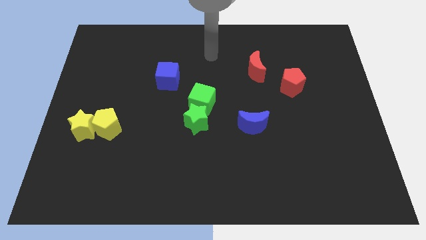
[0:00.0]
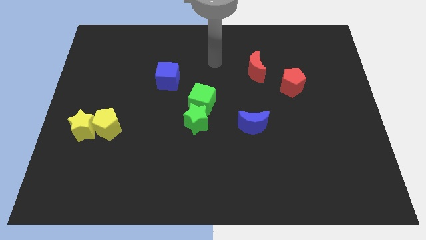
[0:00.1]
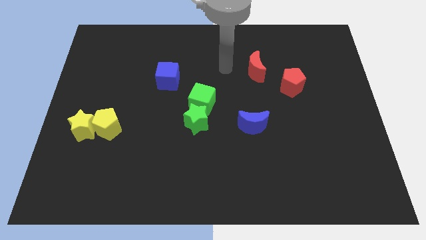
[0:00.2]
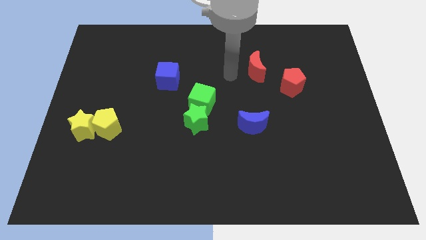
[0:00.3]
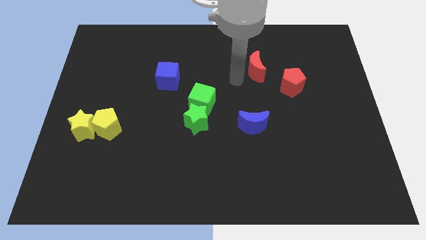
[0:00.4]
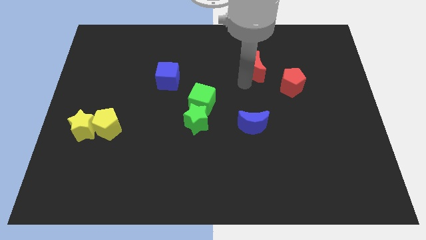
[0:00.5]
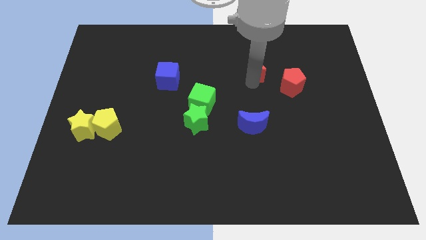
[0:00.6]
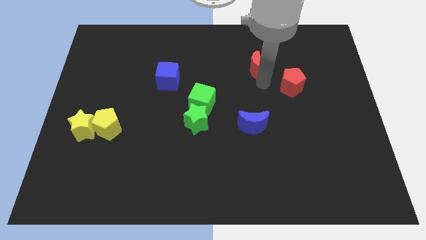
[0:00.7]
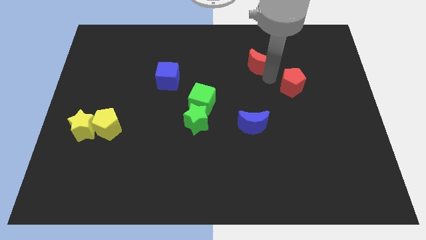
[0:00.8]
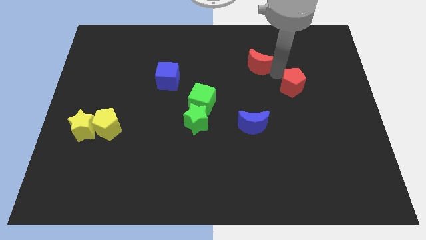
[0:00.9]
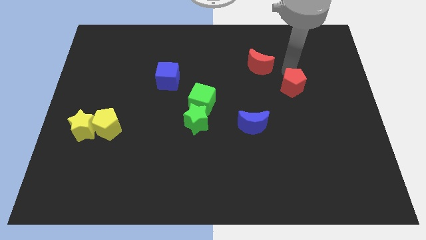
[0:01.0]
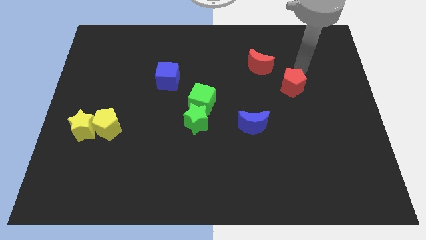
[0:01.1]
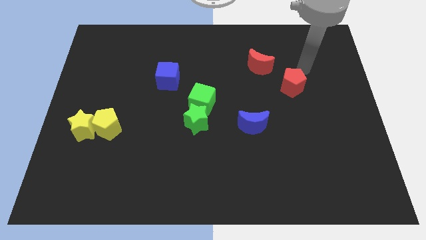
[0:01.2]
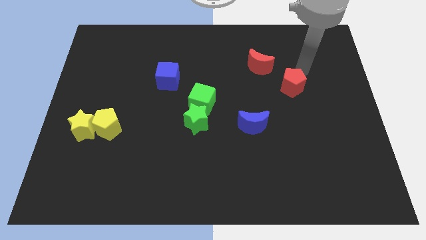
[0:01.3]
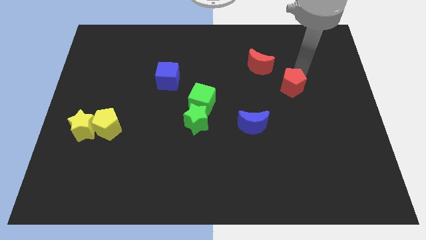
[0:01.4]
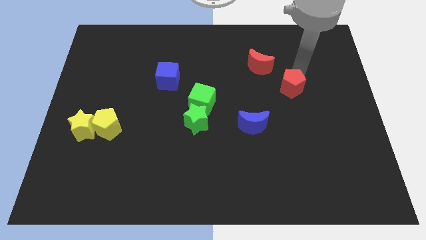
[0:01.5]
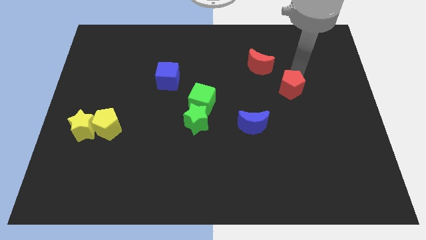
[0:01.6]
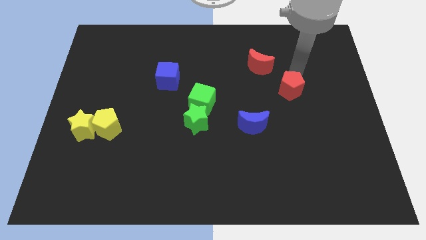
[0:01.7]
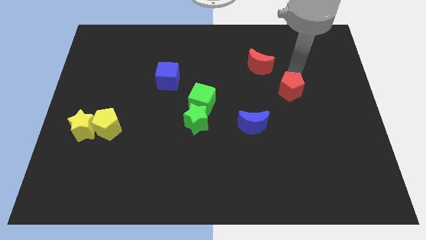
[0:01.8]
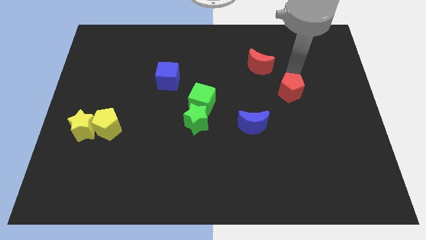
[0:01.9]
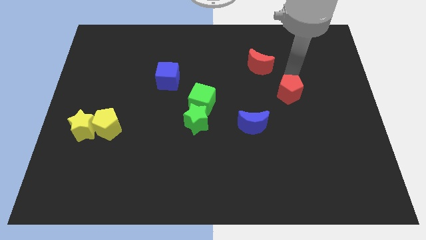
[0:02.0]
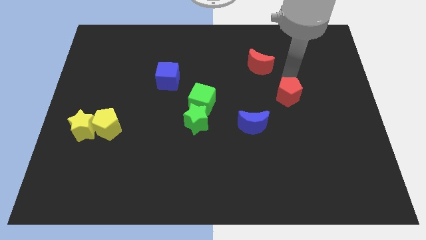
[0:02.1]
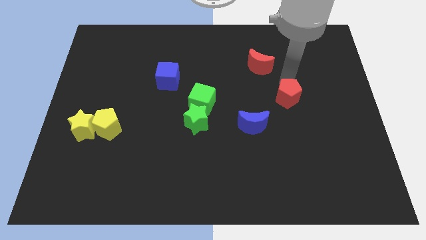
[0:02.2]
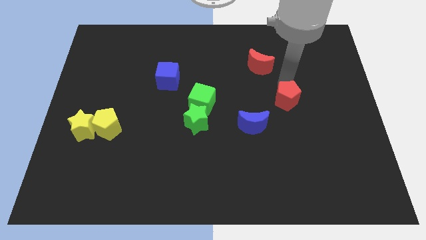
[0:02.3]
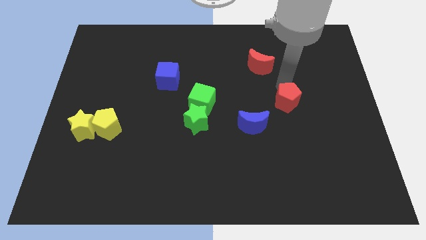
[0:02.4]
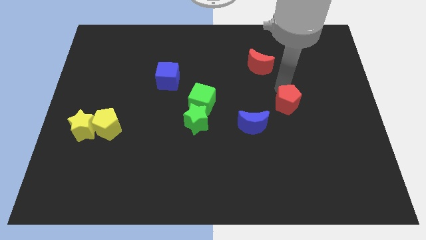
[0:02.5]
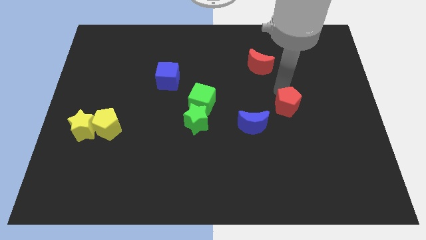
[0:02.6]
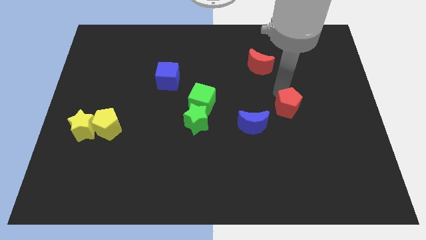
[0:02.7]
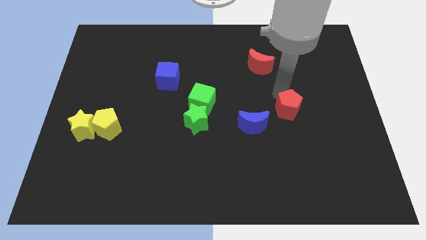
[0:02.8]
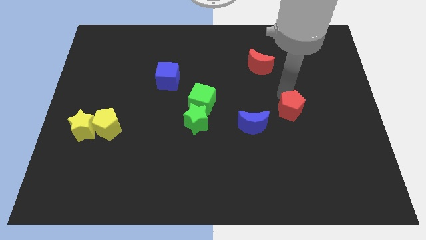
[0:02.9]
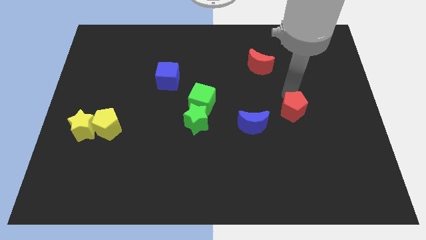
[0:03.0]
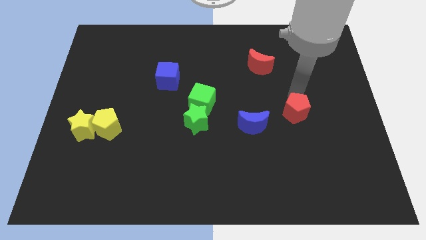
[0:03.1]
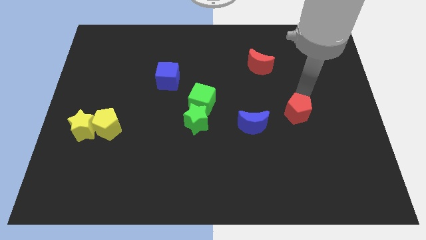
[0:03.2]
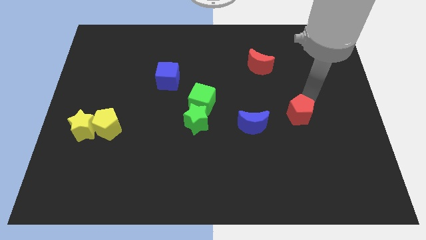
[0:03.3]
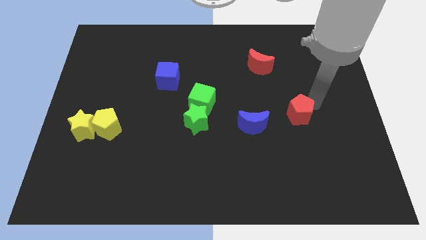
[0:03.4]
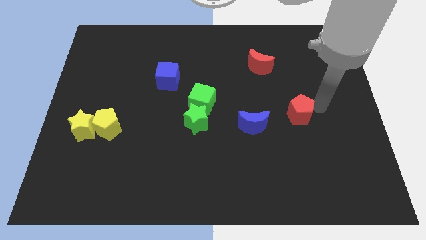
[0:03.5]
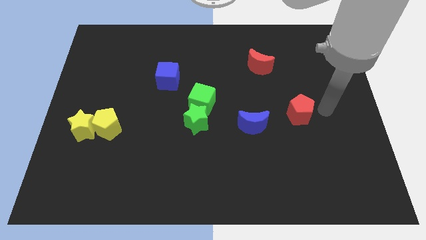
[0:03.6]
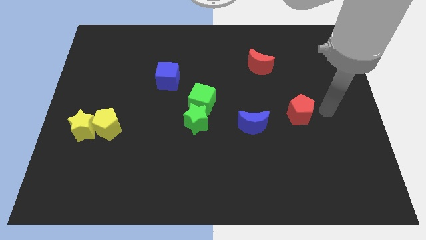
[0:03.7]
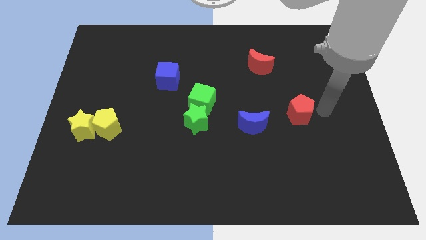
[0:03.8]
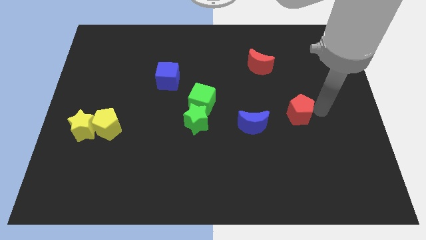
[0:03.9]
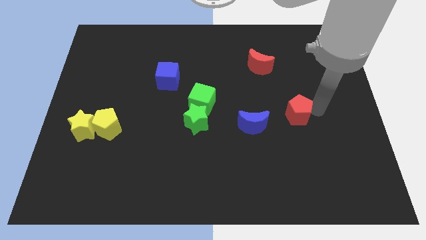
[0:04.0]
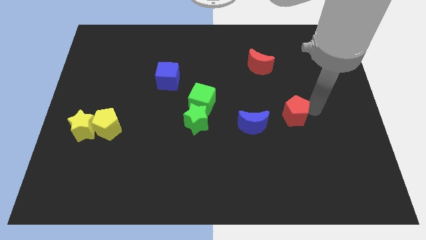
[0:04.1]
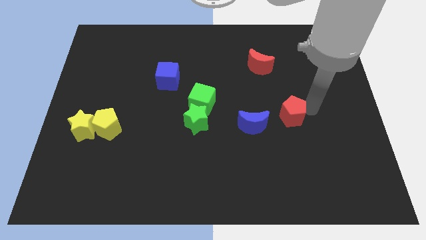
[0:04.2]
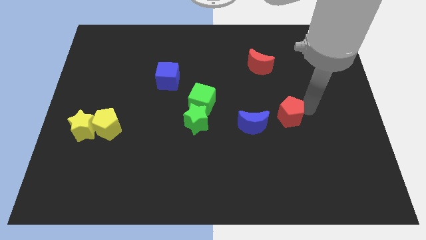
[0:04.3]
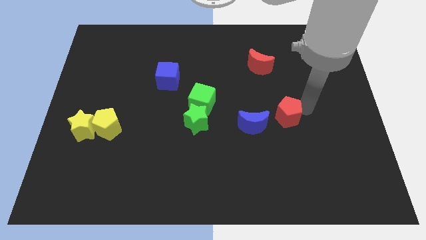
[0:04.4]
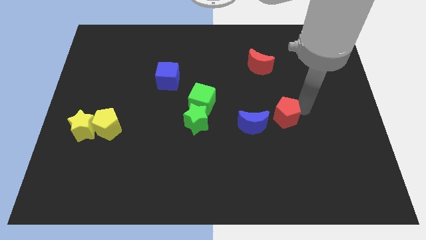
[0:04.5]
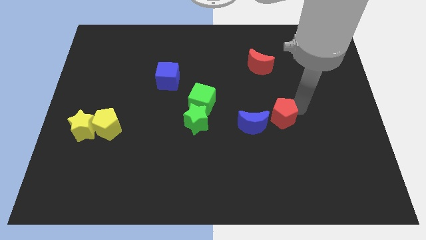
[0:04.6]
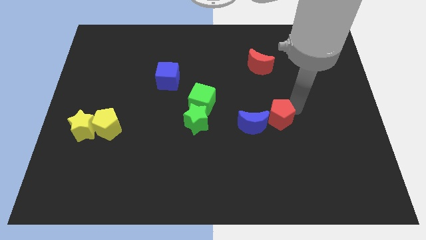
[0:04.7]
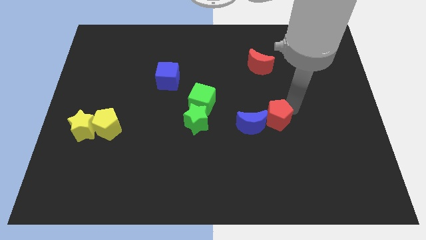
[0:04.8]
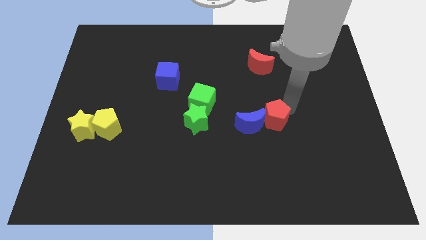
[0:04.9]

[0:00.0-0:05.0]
put the red pentagon towards the blue moon
